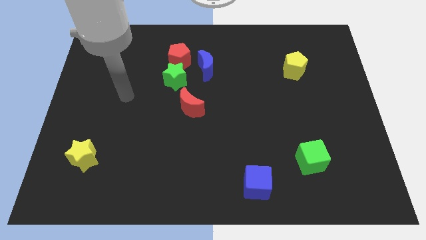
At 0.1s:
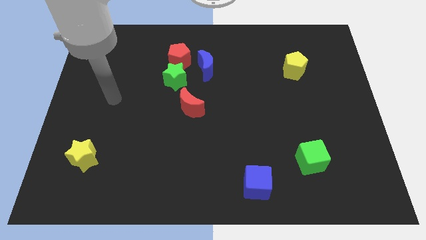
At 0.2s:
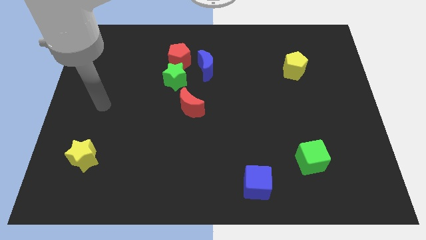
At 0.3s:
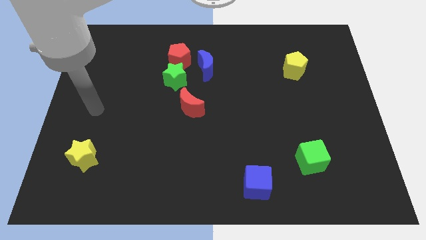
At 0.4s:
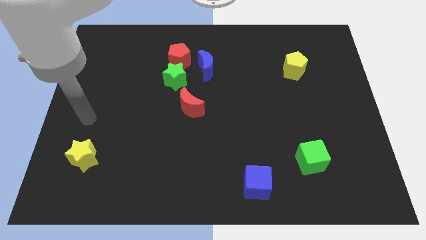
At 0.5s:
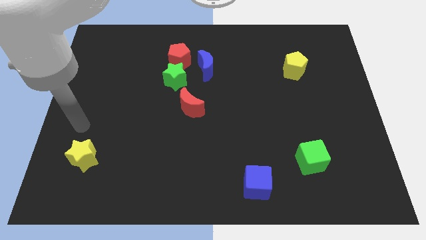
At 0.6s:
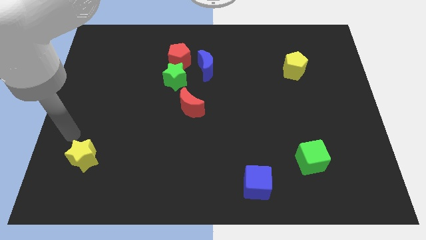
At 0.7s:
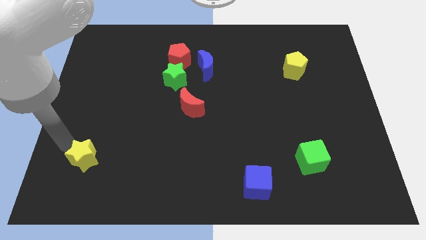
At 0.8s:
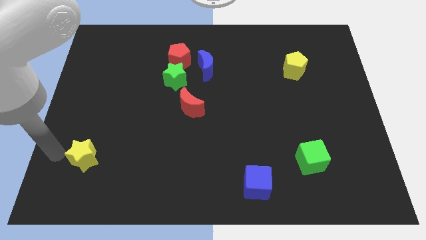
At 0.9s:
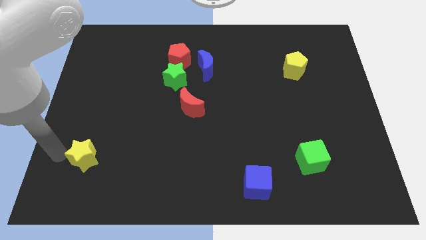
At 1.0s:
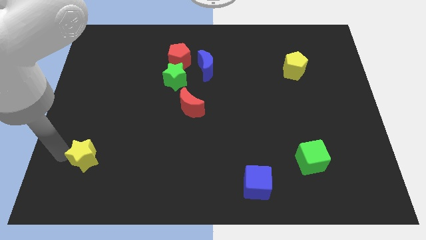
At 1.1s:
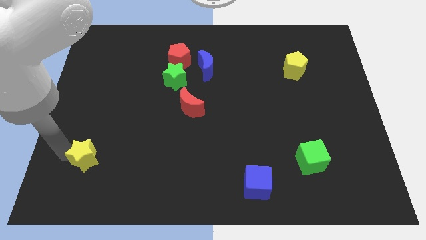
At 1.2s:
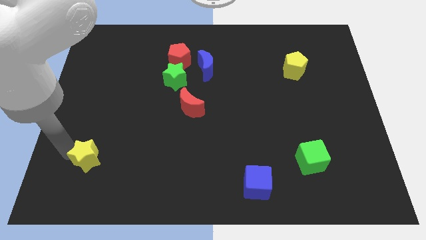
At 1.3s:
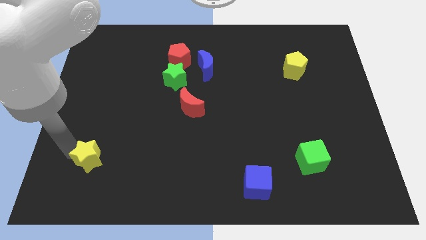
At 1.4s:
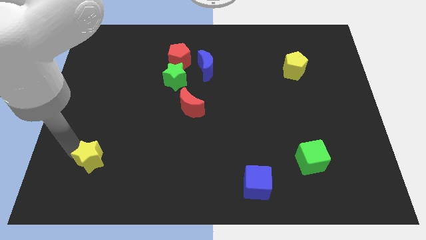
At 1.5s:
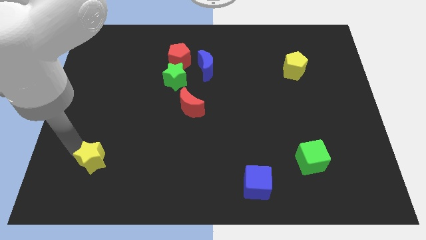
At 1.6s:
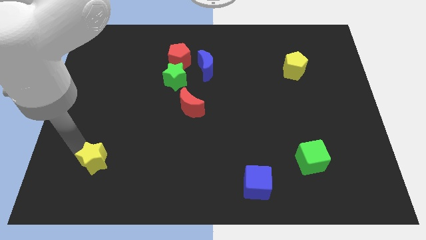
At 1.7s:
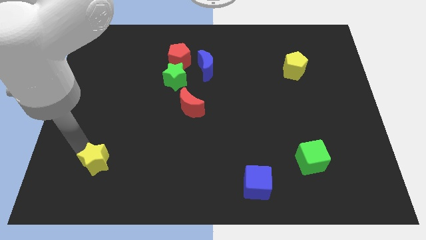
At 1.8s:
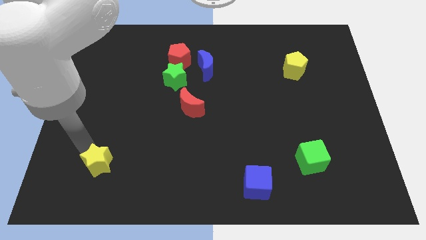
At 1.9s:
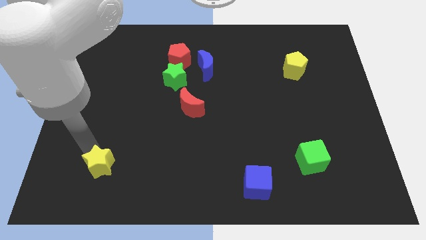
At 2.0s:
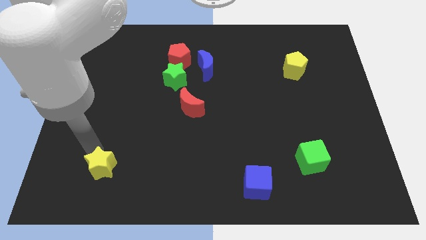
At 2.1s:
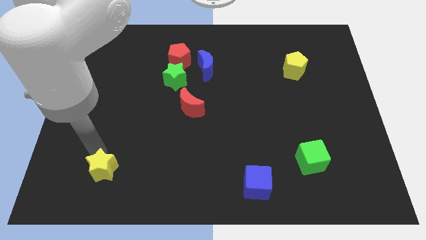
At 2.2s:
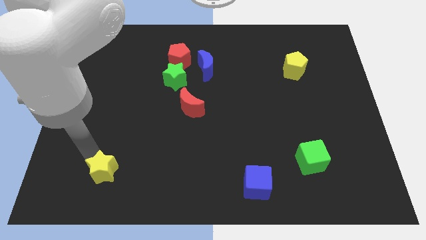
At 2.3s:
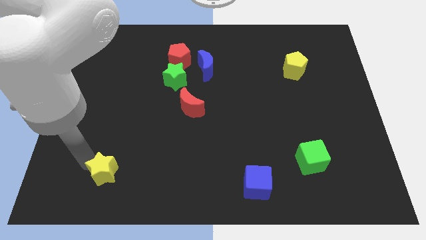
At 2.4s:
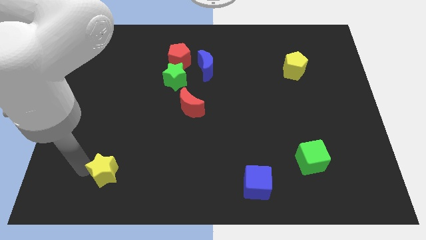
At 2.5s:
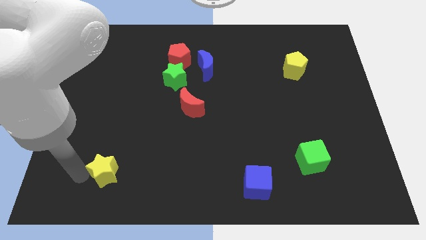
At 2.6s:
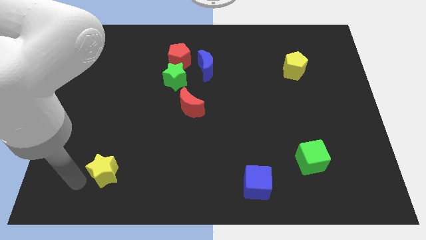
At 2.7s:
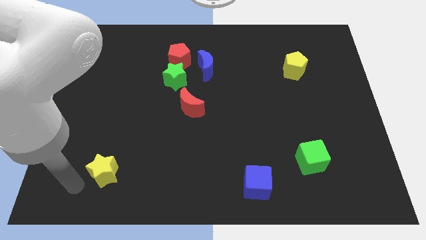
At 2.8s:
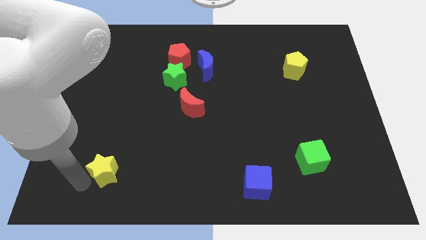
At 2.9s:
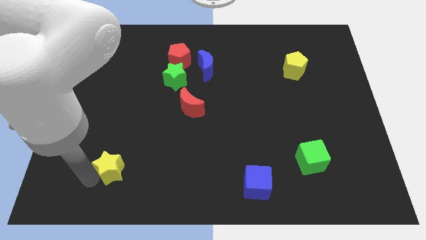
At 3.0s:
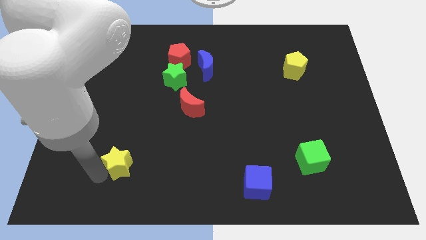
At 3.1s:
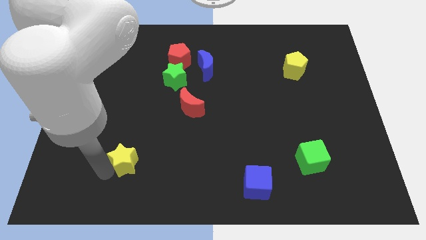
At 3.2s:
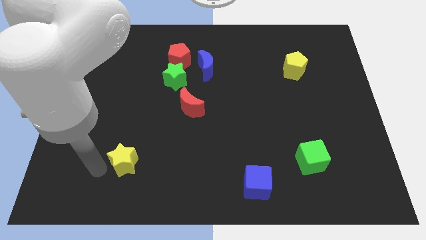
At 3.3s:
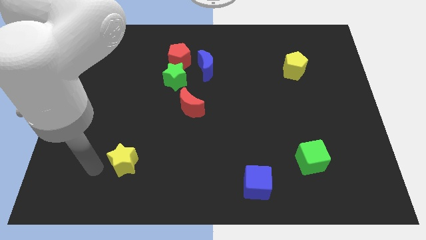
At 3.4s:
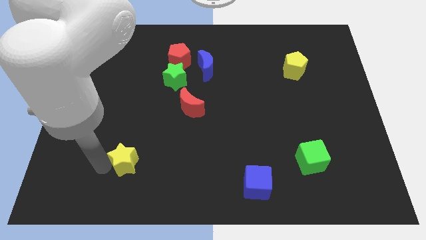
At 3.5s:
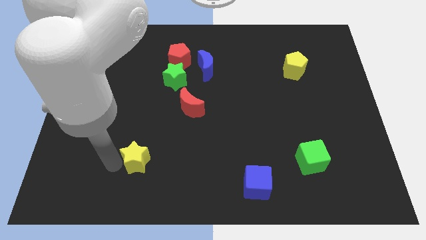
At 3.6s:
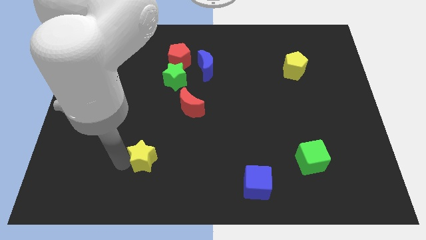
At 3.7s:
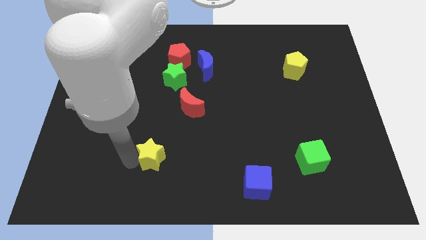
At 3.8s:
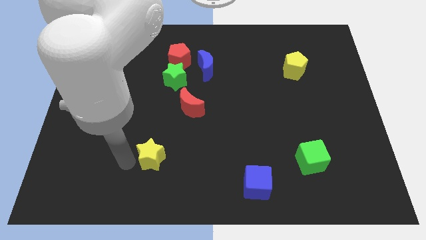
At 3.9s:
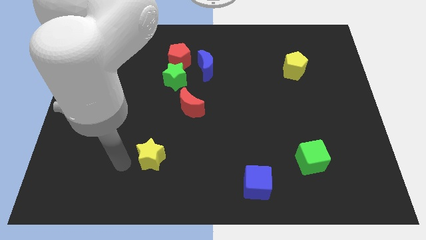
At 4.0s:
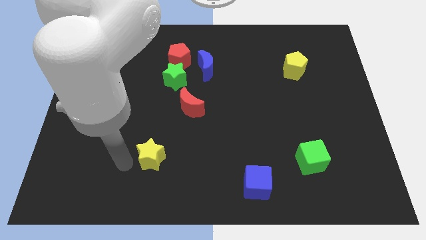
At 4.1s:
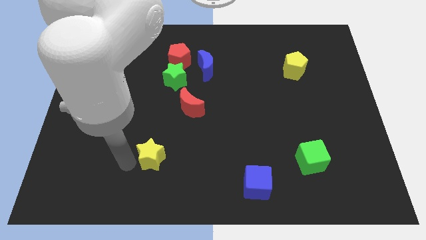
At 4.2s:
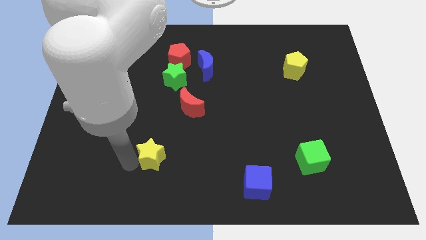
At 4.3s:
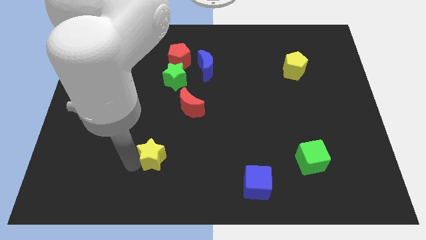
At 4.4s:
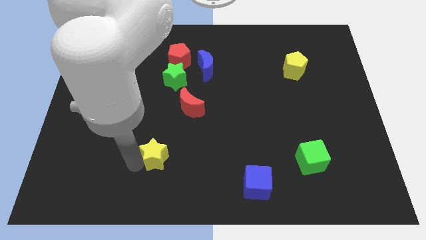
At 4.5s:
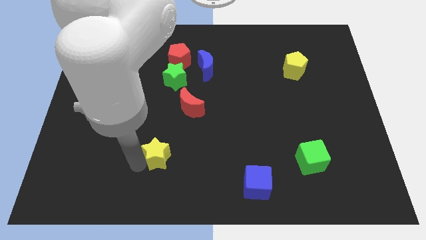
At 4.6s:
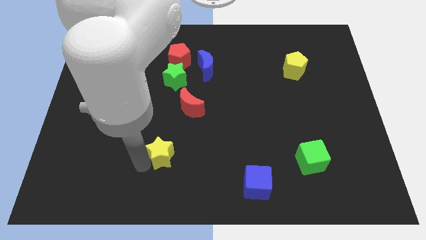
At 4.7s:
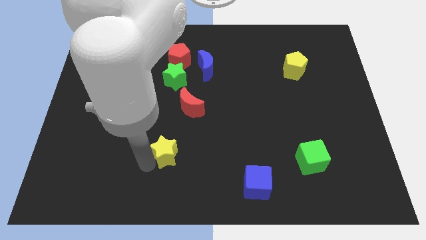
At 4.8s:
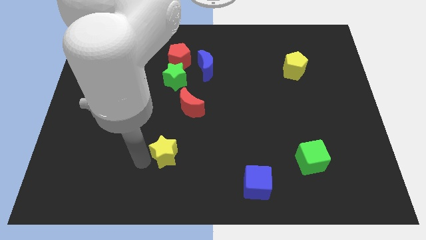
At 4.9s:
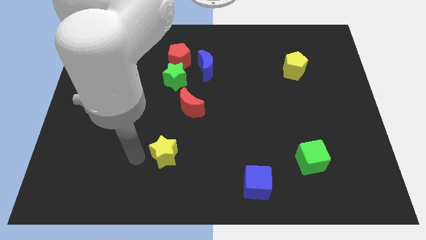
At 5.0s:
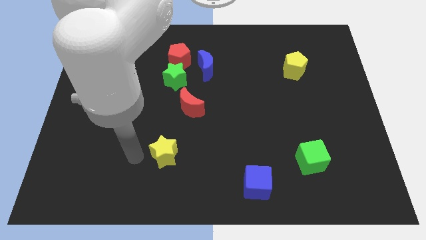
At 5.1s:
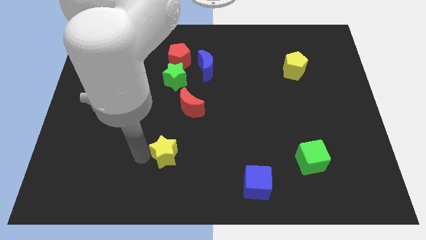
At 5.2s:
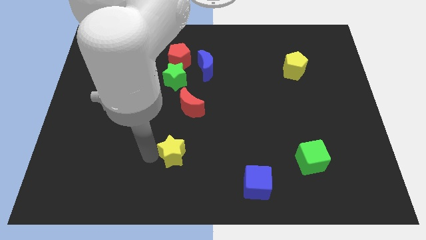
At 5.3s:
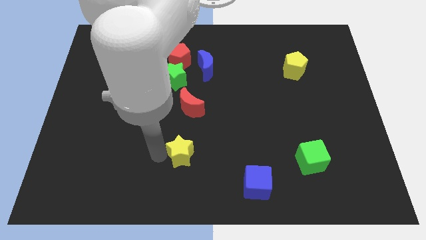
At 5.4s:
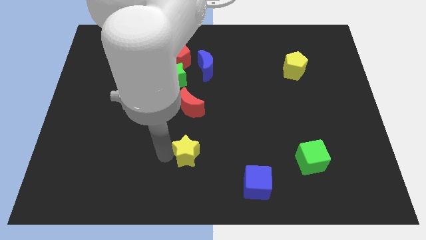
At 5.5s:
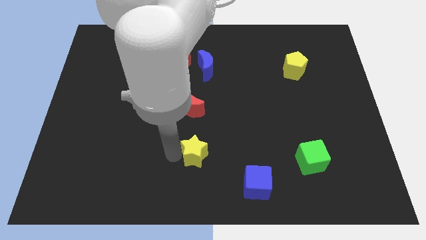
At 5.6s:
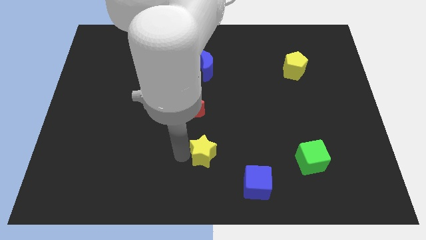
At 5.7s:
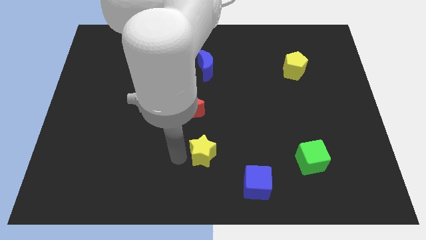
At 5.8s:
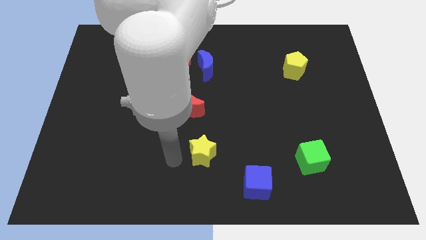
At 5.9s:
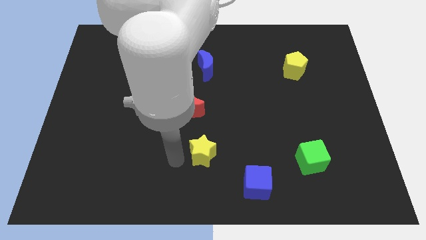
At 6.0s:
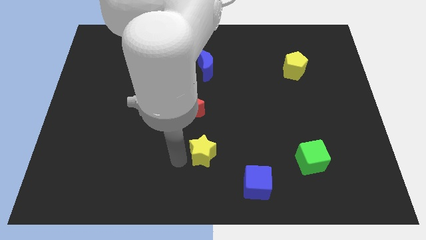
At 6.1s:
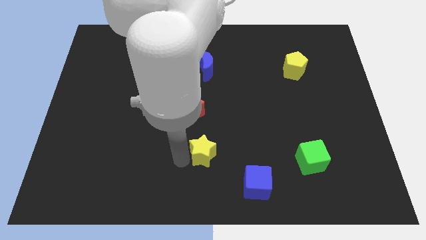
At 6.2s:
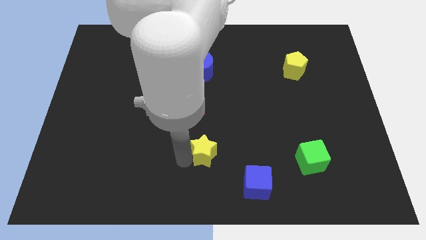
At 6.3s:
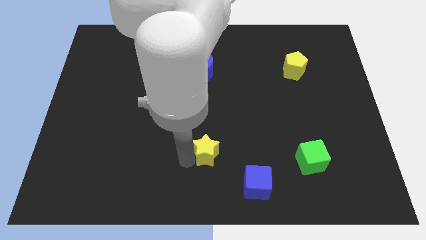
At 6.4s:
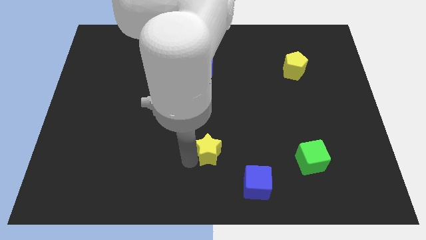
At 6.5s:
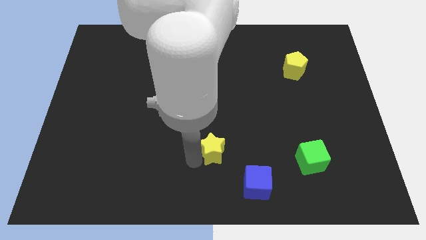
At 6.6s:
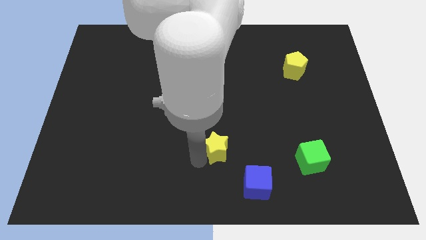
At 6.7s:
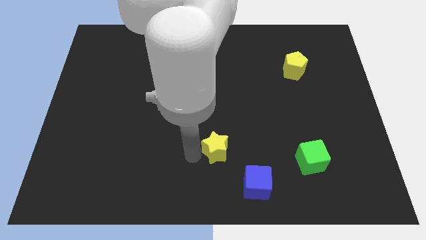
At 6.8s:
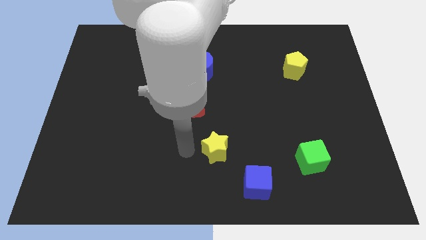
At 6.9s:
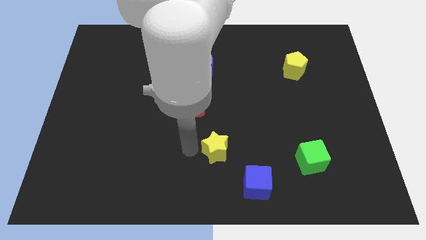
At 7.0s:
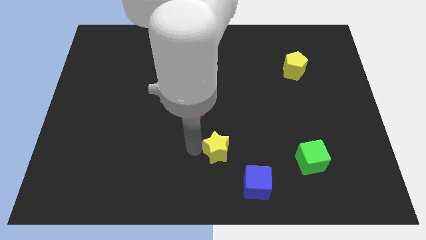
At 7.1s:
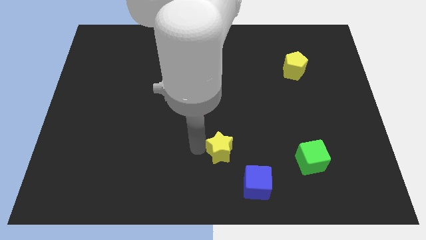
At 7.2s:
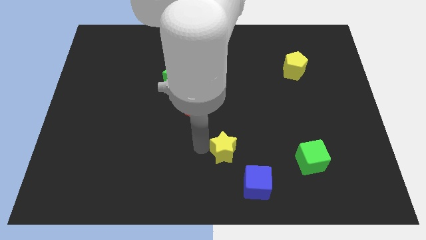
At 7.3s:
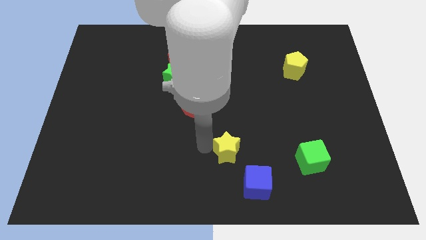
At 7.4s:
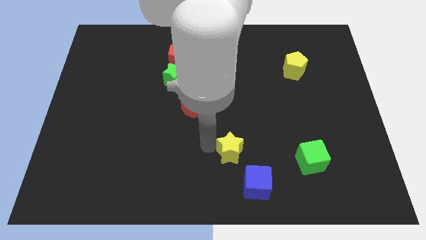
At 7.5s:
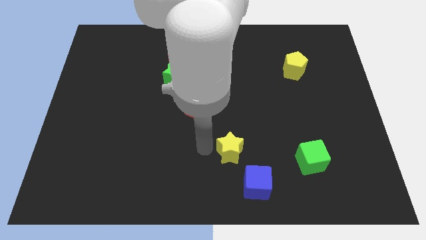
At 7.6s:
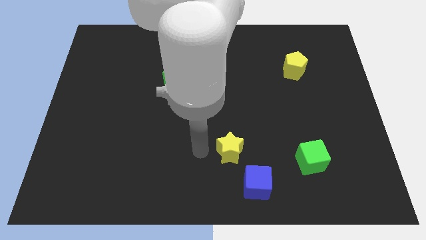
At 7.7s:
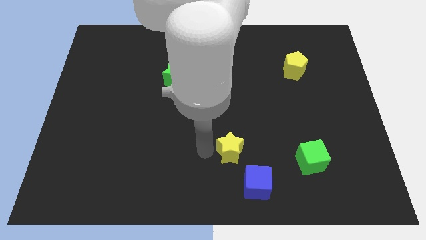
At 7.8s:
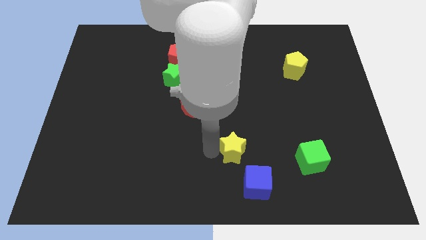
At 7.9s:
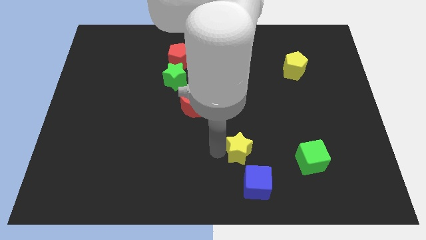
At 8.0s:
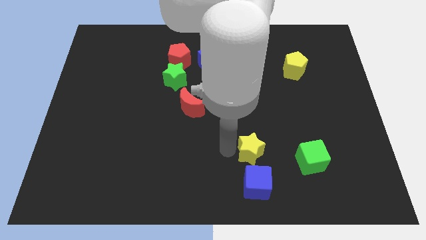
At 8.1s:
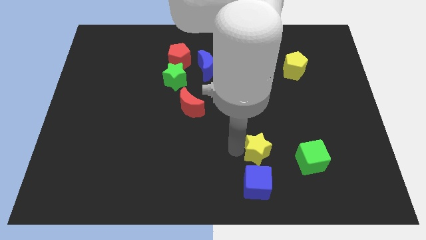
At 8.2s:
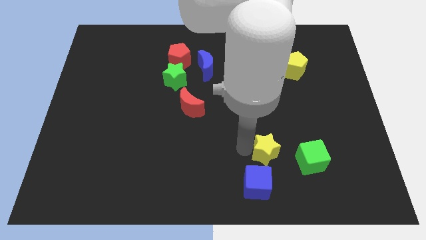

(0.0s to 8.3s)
push the yellow star to the top right of the blue cube
